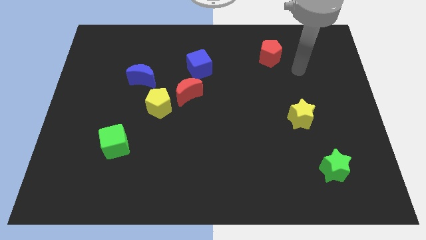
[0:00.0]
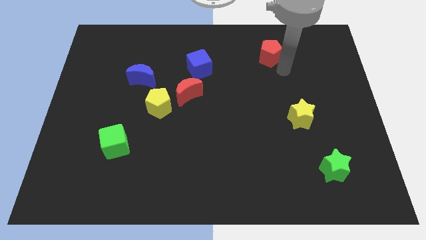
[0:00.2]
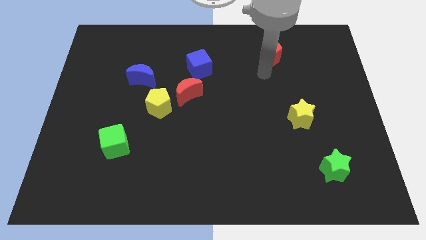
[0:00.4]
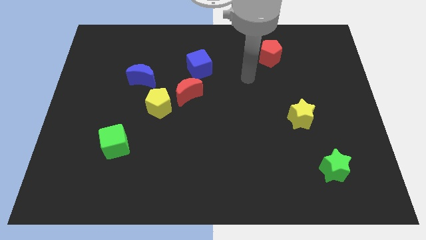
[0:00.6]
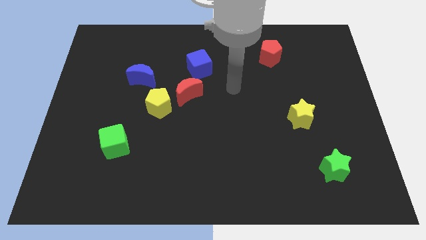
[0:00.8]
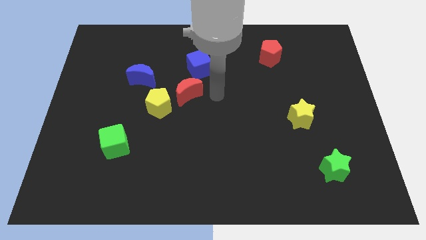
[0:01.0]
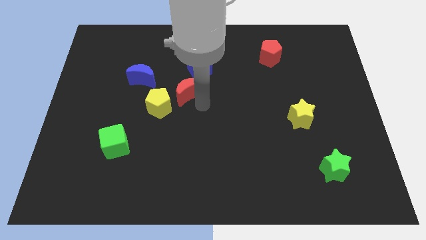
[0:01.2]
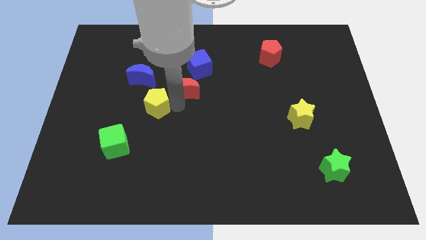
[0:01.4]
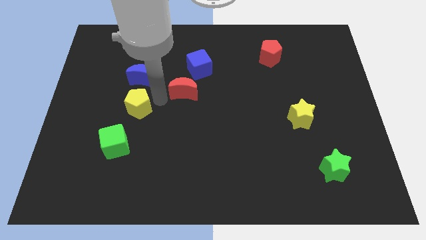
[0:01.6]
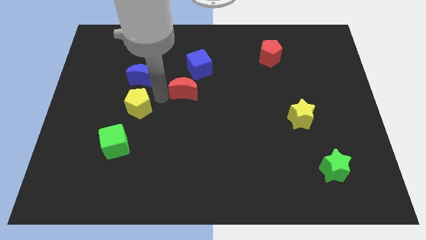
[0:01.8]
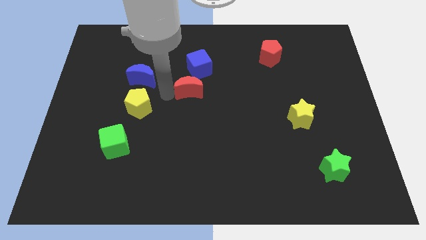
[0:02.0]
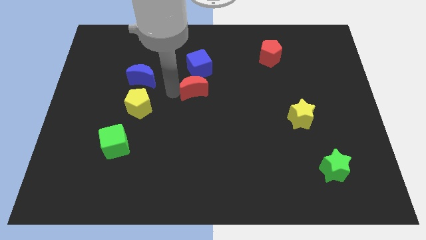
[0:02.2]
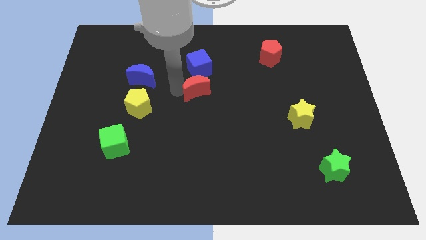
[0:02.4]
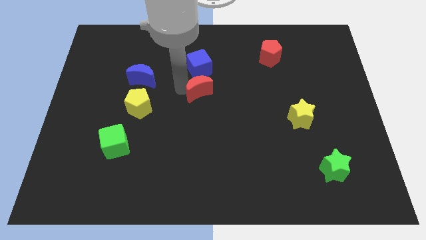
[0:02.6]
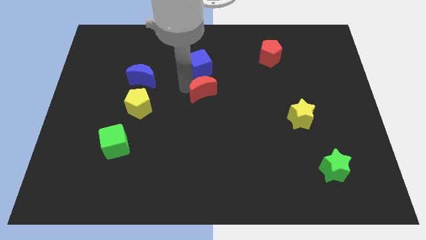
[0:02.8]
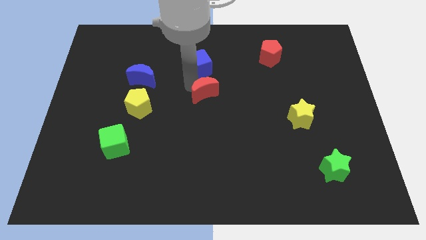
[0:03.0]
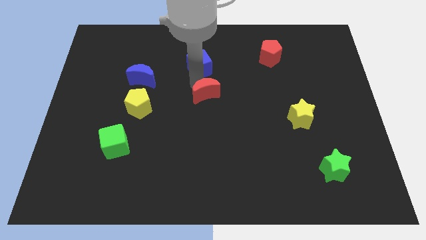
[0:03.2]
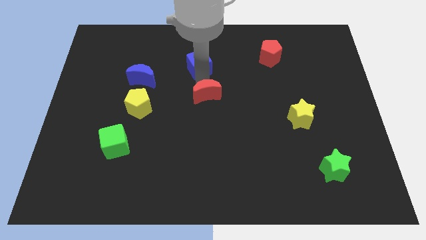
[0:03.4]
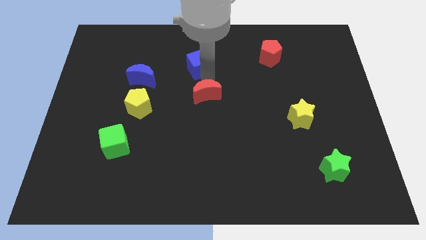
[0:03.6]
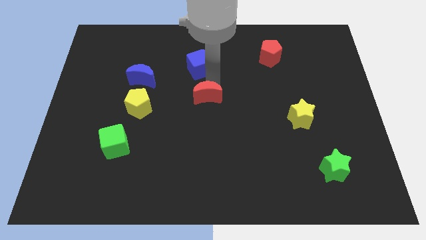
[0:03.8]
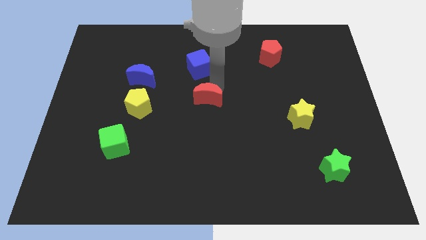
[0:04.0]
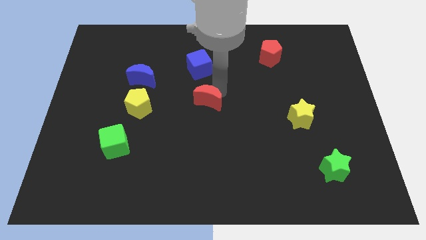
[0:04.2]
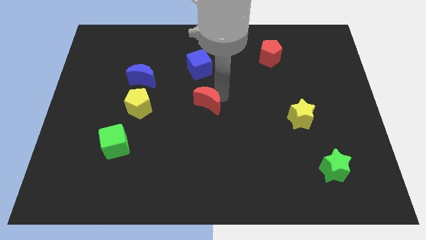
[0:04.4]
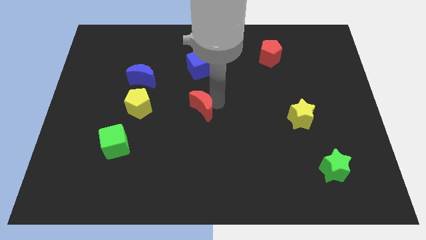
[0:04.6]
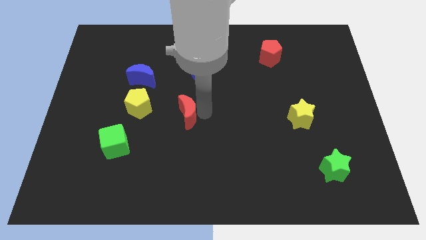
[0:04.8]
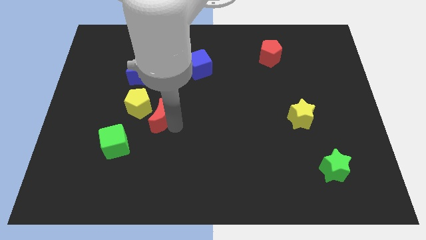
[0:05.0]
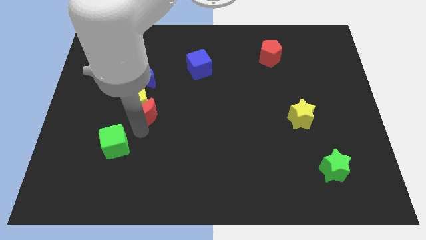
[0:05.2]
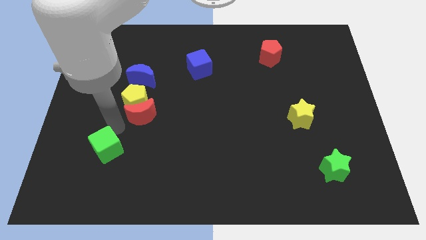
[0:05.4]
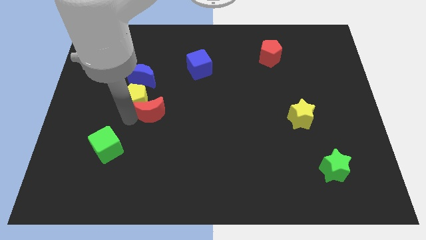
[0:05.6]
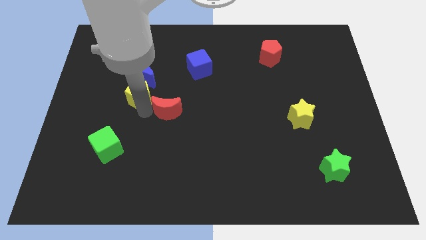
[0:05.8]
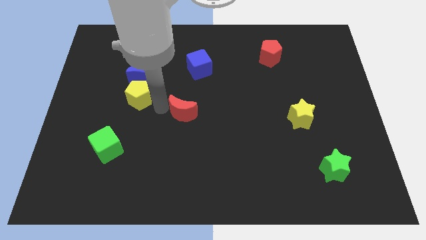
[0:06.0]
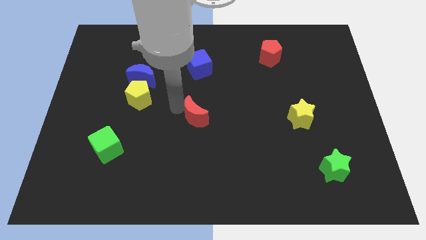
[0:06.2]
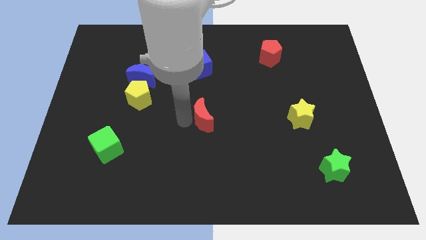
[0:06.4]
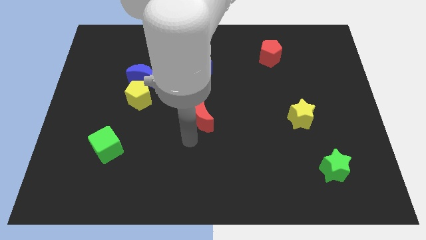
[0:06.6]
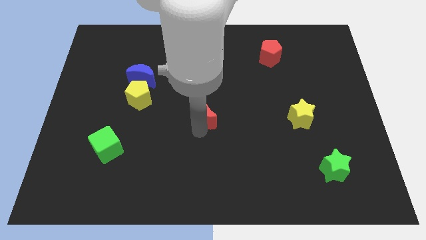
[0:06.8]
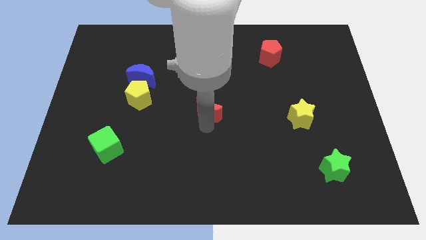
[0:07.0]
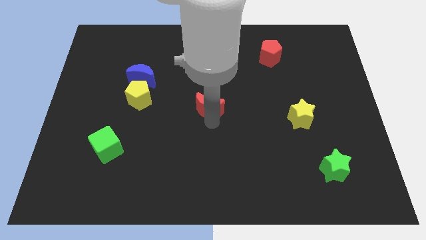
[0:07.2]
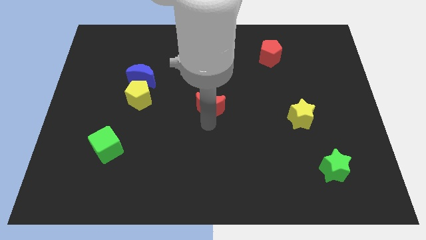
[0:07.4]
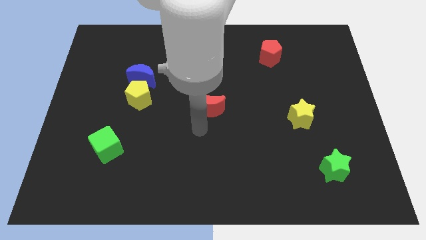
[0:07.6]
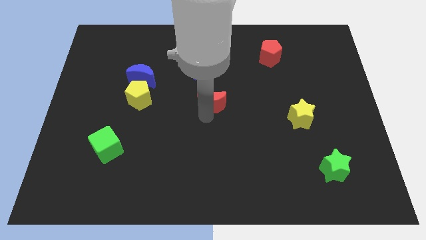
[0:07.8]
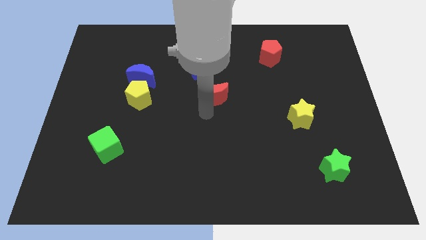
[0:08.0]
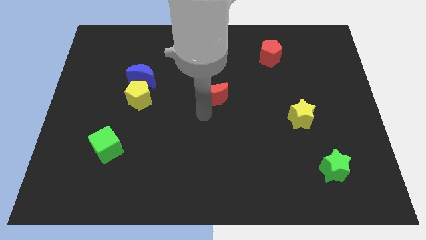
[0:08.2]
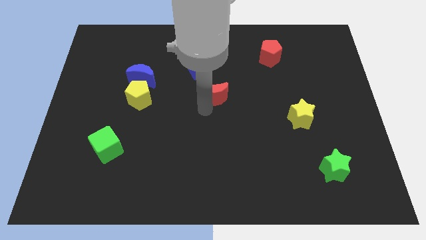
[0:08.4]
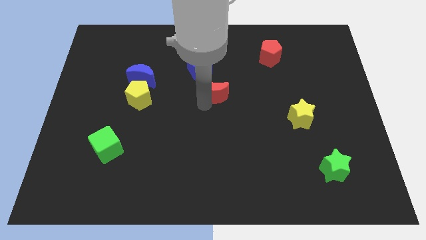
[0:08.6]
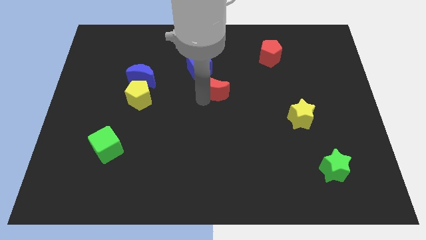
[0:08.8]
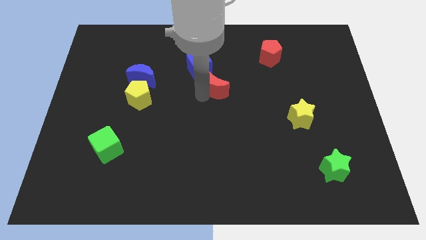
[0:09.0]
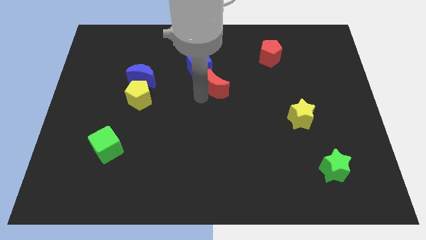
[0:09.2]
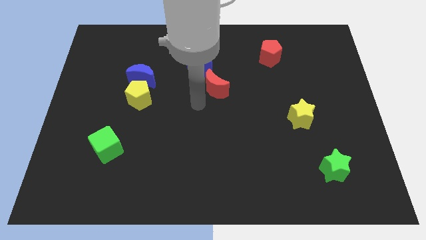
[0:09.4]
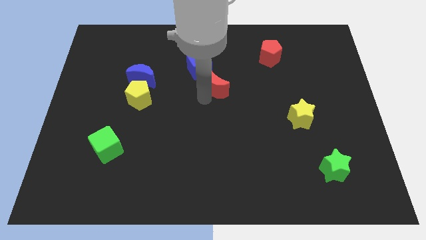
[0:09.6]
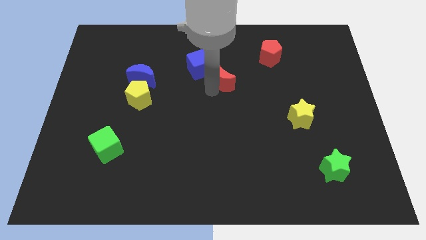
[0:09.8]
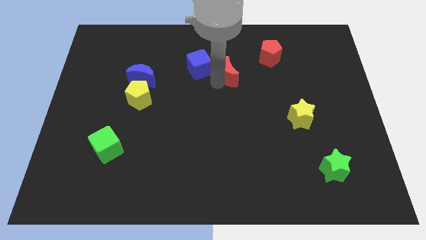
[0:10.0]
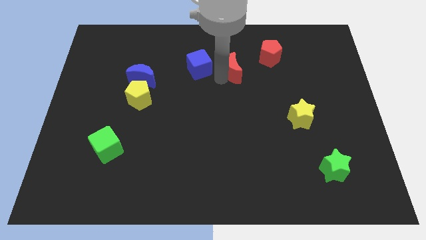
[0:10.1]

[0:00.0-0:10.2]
put the red moon to the bottom left of the red pentagon

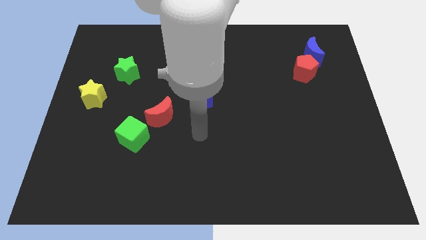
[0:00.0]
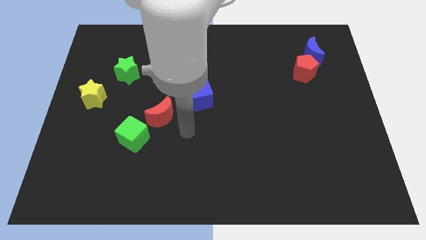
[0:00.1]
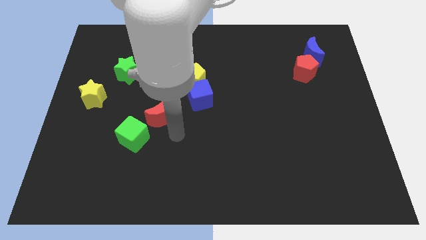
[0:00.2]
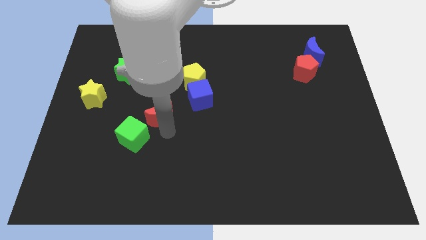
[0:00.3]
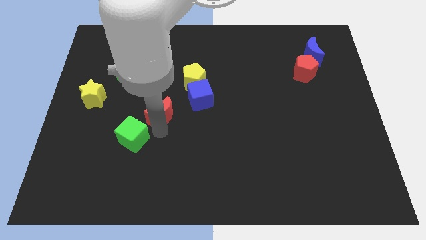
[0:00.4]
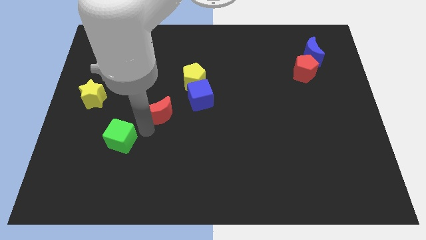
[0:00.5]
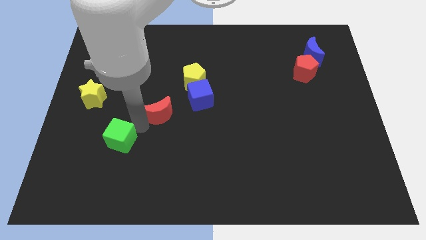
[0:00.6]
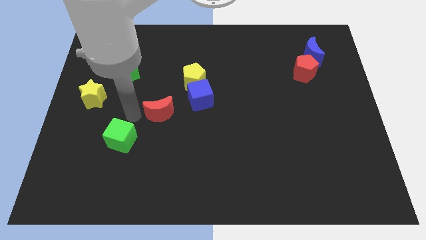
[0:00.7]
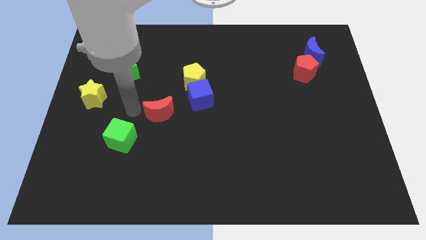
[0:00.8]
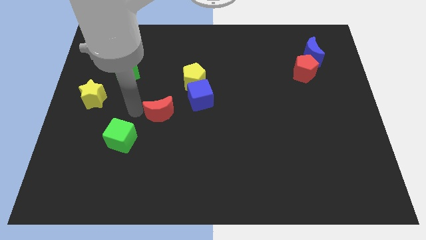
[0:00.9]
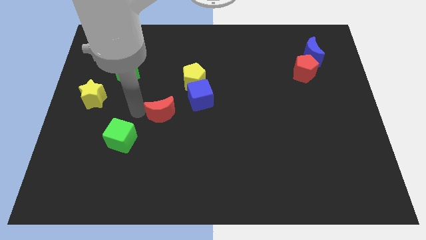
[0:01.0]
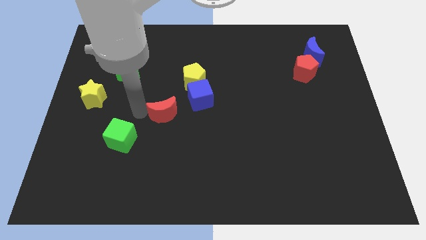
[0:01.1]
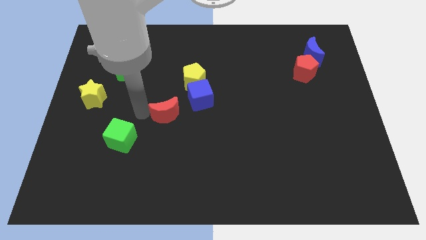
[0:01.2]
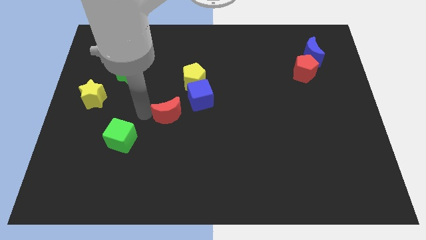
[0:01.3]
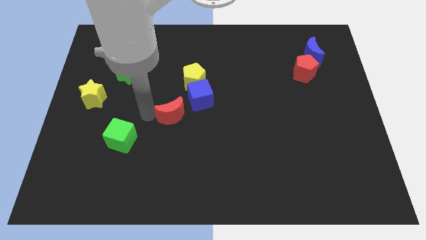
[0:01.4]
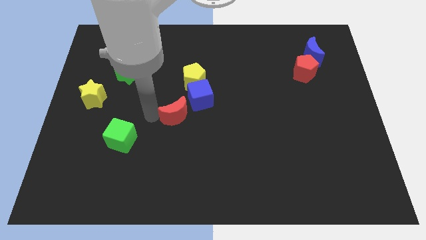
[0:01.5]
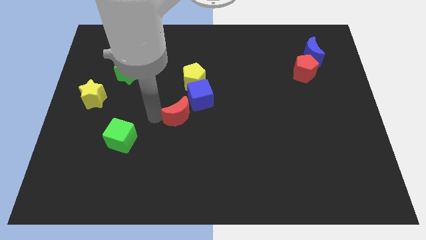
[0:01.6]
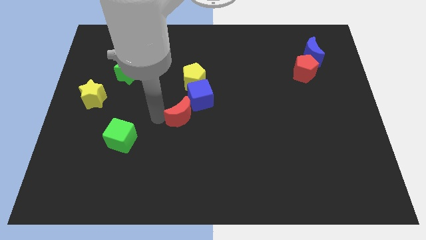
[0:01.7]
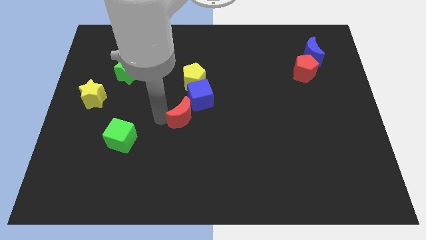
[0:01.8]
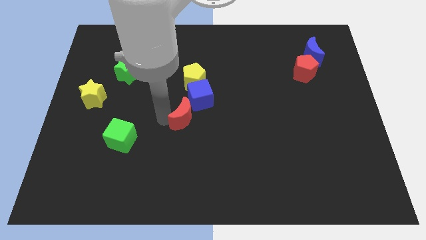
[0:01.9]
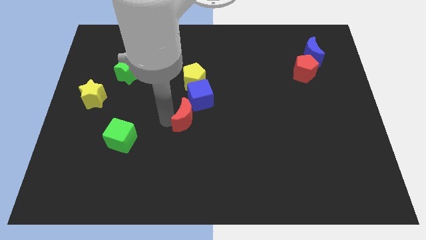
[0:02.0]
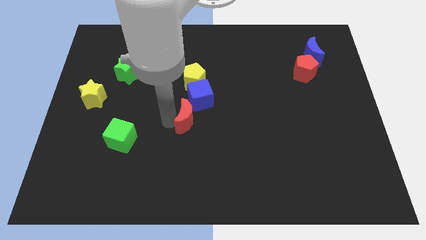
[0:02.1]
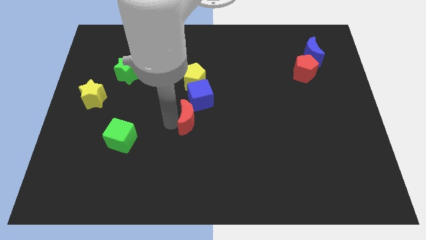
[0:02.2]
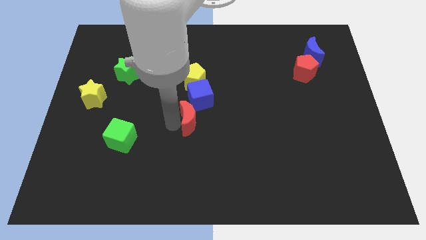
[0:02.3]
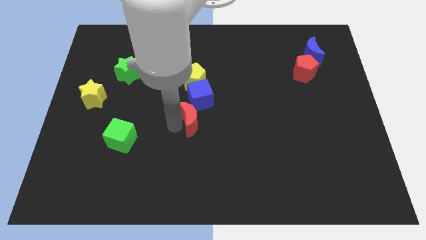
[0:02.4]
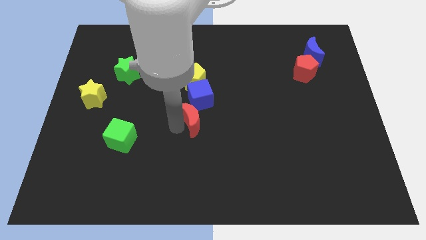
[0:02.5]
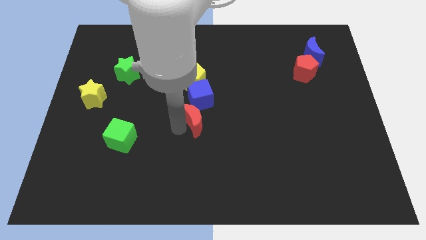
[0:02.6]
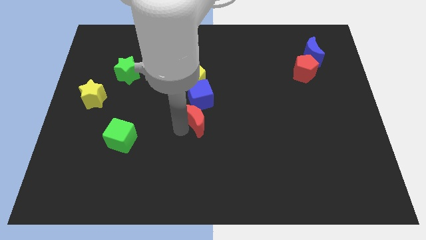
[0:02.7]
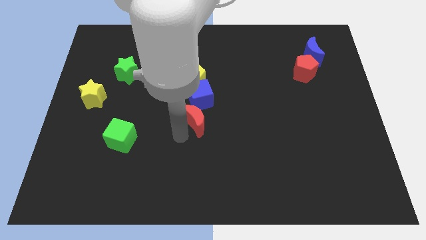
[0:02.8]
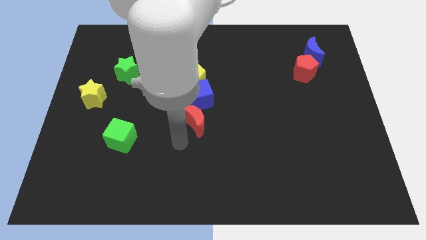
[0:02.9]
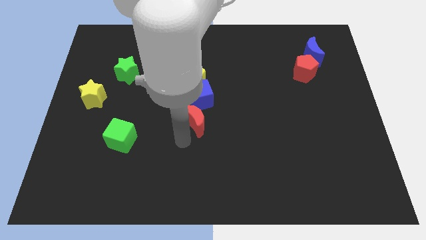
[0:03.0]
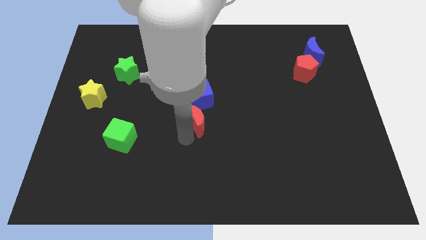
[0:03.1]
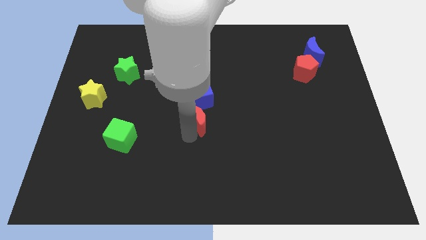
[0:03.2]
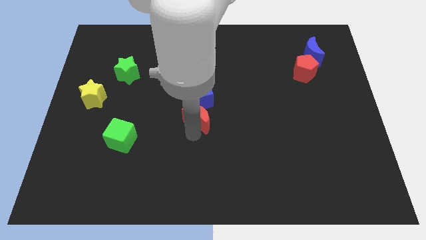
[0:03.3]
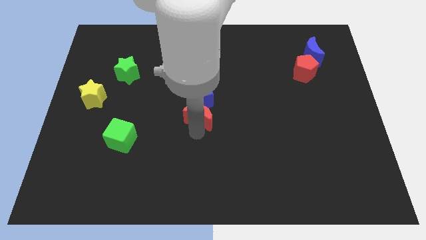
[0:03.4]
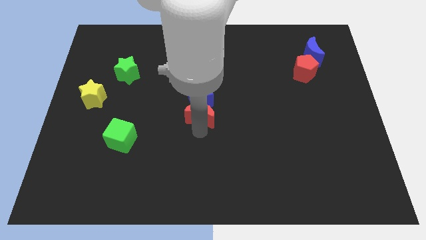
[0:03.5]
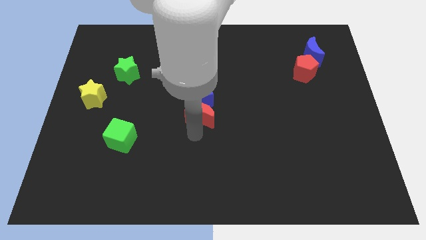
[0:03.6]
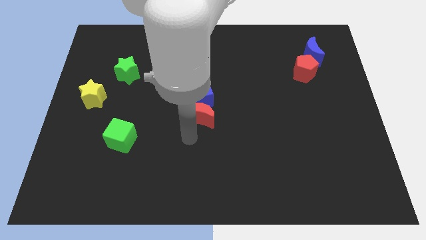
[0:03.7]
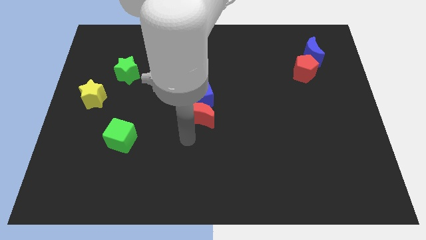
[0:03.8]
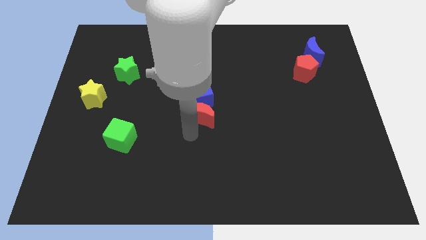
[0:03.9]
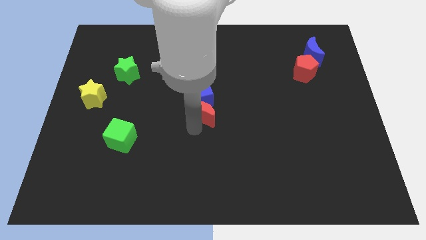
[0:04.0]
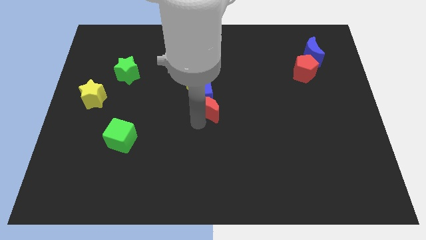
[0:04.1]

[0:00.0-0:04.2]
put the red moon to the bottom right side of the yellow pentagon
